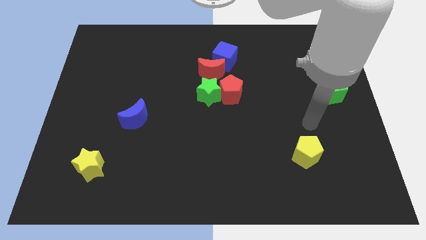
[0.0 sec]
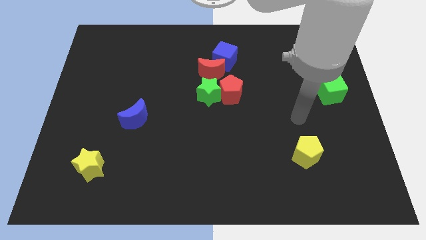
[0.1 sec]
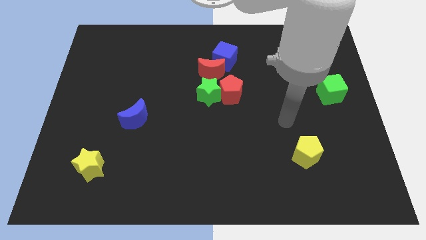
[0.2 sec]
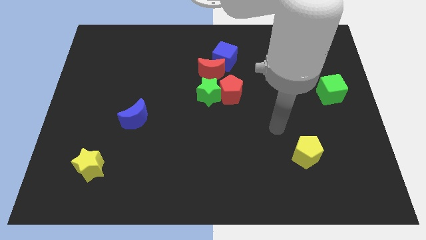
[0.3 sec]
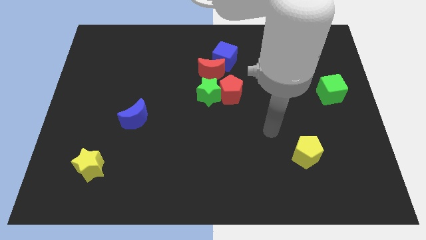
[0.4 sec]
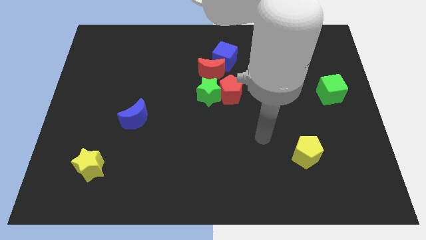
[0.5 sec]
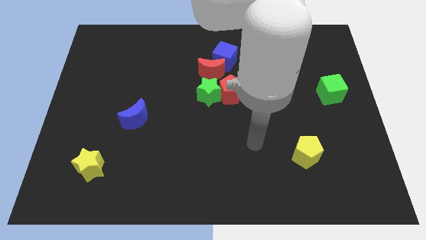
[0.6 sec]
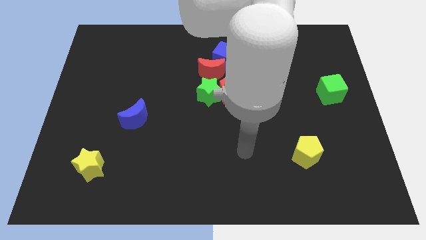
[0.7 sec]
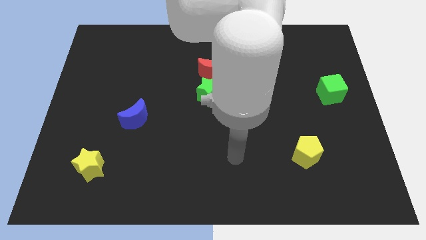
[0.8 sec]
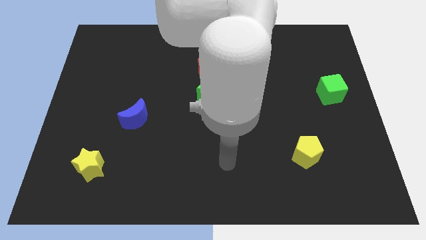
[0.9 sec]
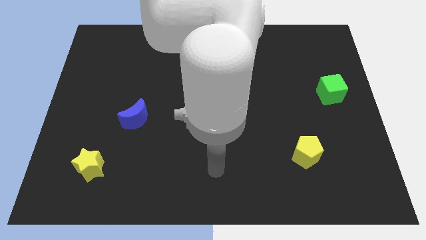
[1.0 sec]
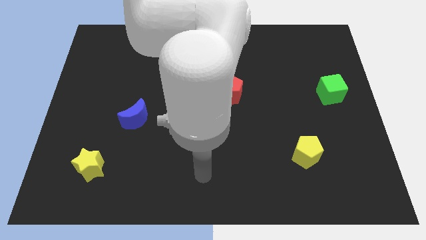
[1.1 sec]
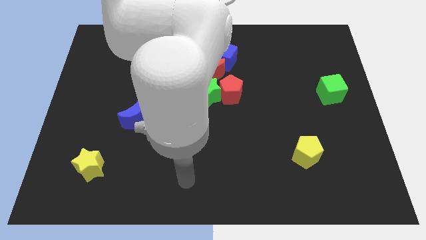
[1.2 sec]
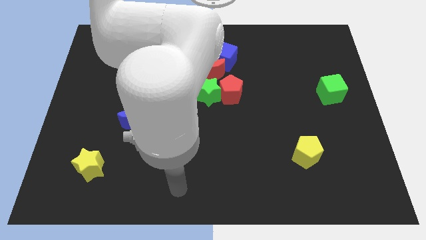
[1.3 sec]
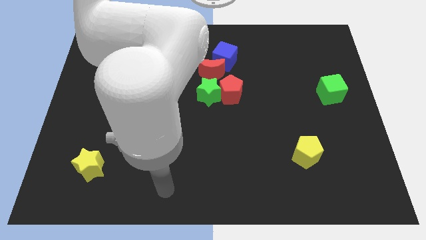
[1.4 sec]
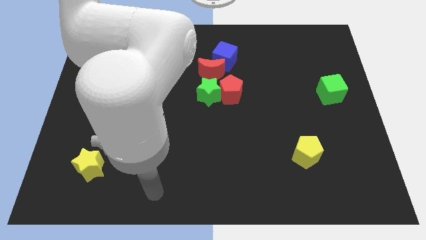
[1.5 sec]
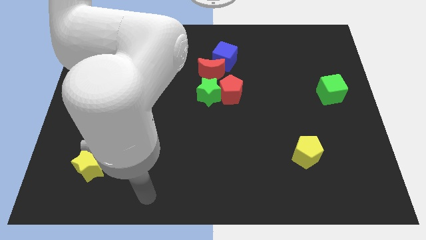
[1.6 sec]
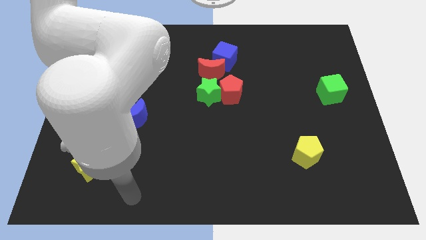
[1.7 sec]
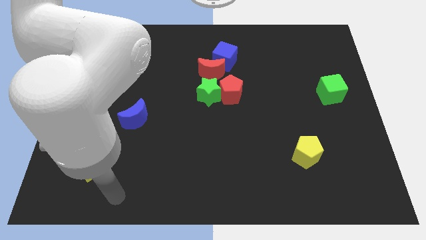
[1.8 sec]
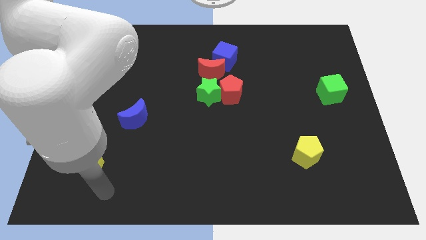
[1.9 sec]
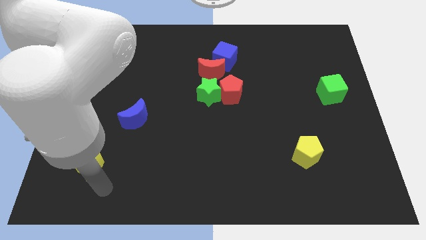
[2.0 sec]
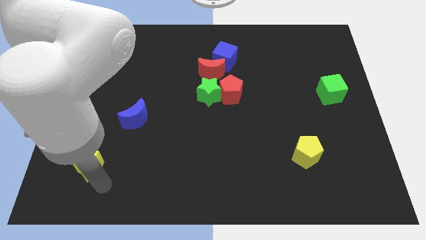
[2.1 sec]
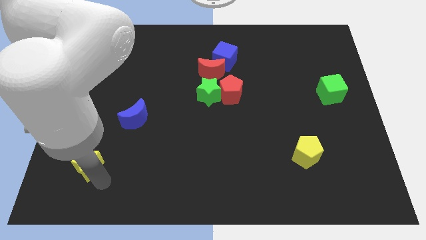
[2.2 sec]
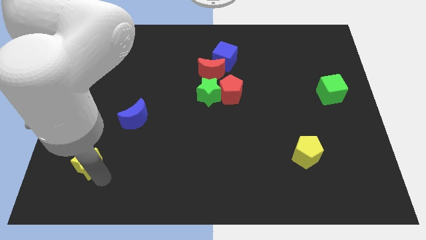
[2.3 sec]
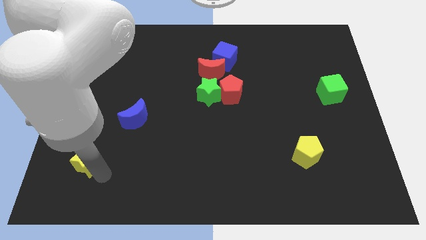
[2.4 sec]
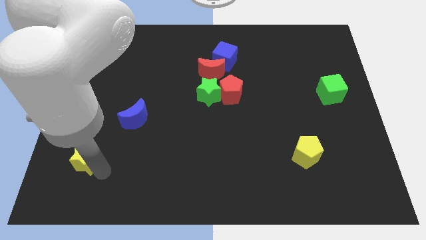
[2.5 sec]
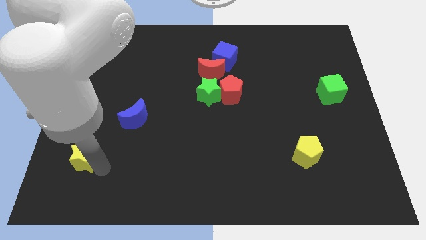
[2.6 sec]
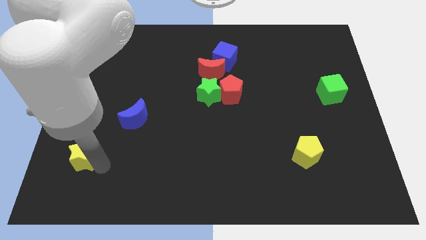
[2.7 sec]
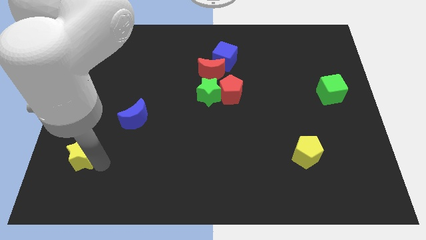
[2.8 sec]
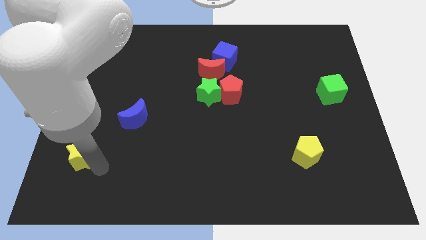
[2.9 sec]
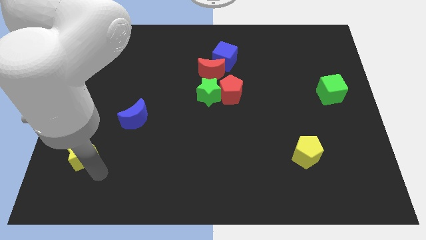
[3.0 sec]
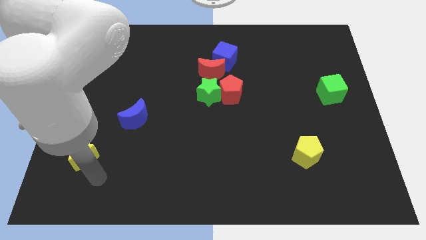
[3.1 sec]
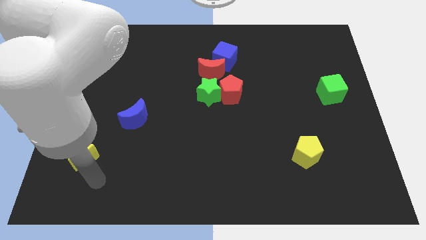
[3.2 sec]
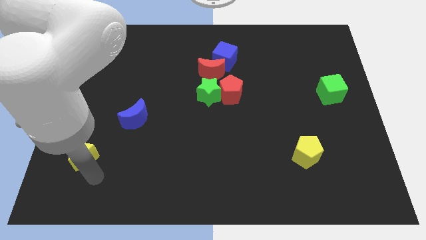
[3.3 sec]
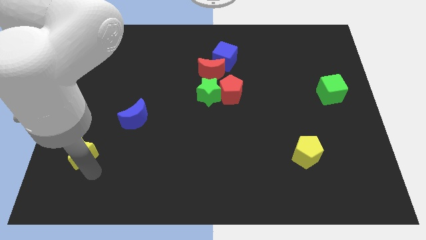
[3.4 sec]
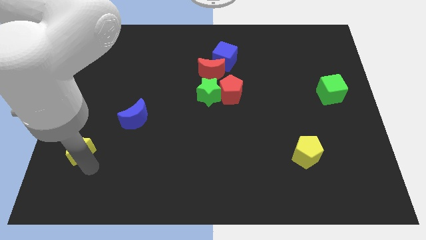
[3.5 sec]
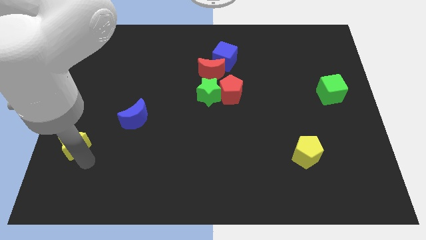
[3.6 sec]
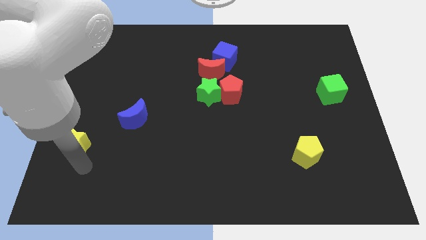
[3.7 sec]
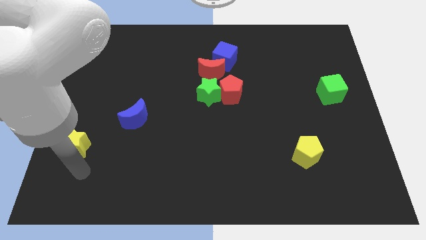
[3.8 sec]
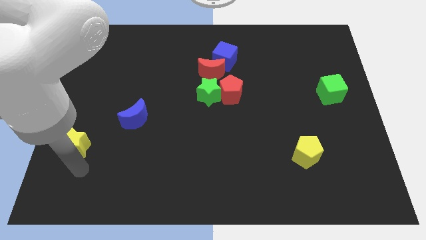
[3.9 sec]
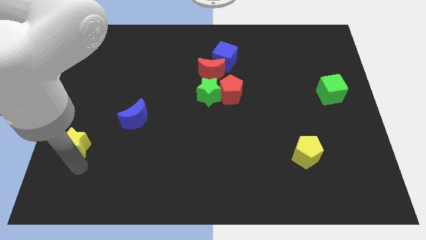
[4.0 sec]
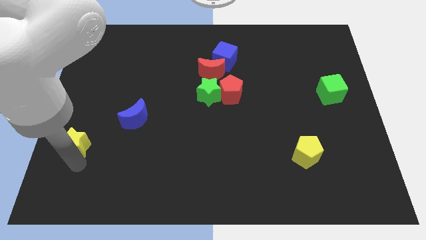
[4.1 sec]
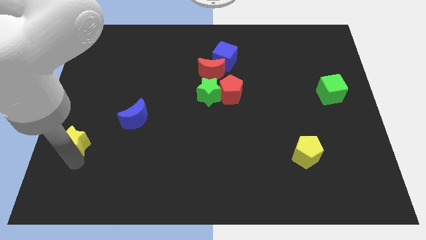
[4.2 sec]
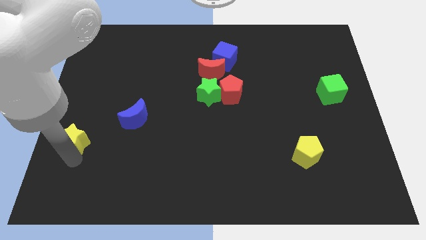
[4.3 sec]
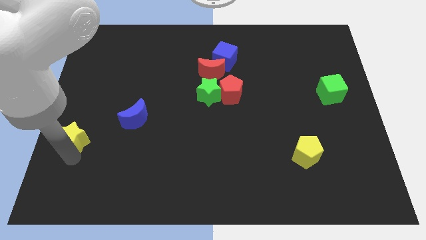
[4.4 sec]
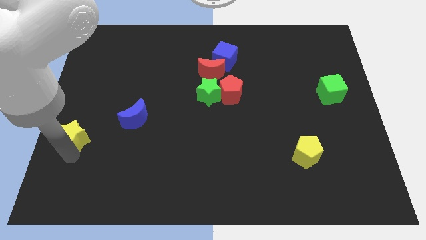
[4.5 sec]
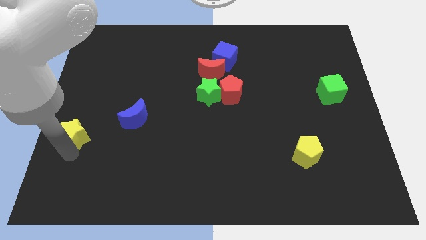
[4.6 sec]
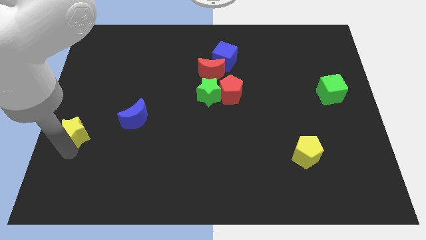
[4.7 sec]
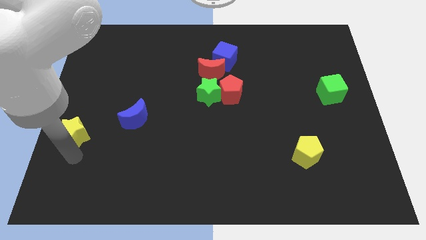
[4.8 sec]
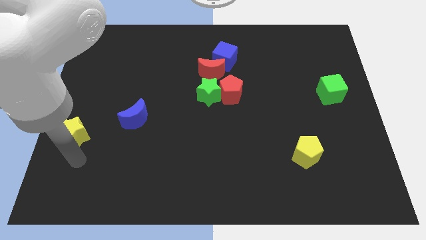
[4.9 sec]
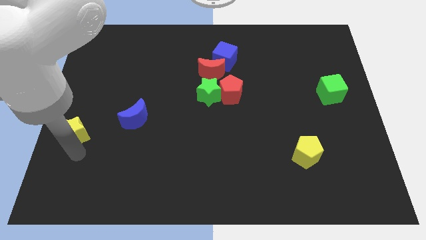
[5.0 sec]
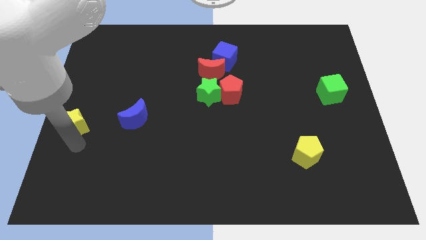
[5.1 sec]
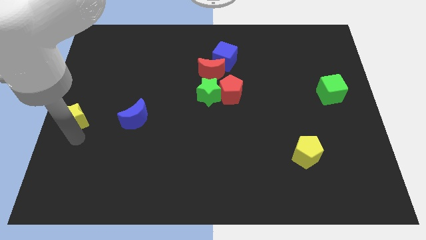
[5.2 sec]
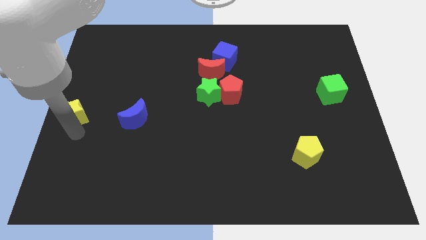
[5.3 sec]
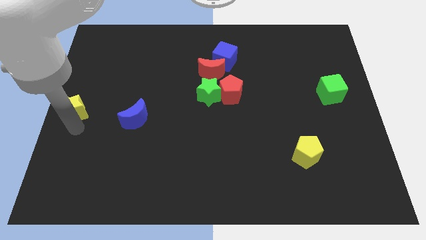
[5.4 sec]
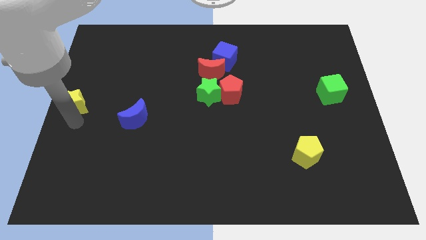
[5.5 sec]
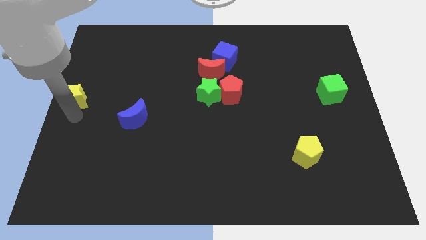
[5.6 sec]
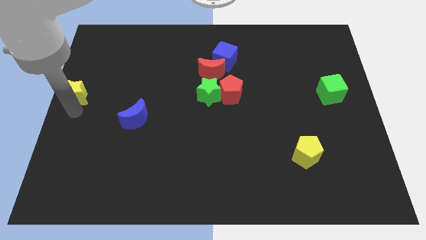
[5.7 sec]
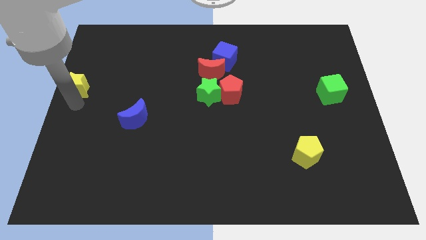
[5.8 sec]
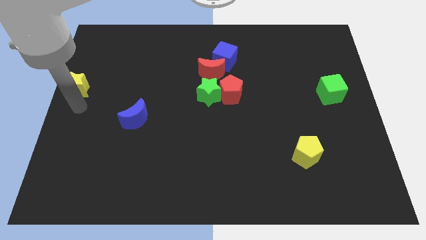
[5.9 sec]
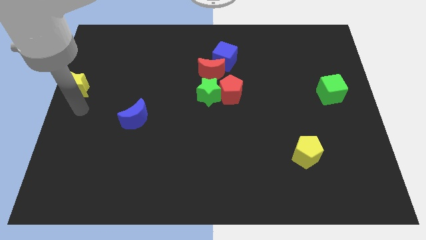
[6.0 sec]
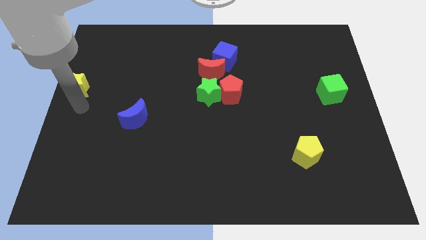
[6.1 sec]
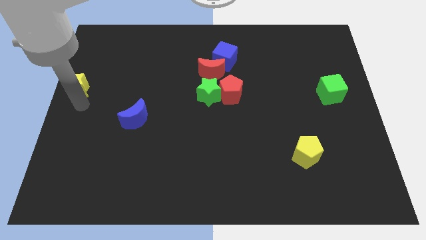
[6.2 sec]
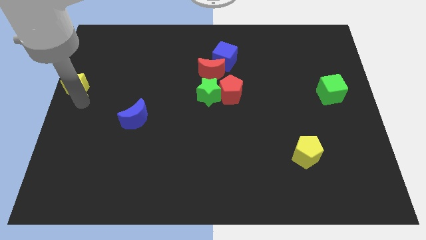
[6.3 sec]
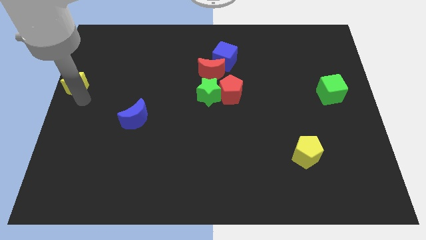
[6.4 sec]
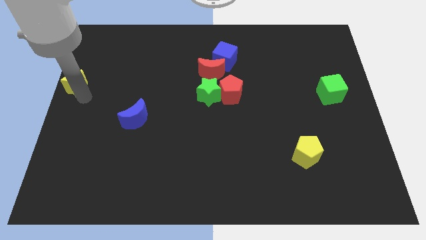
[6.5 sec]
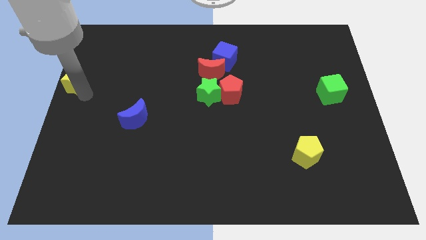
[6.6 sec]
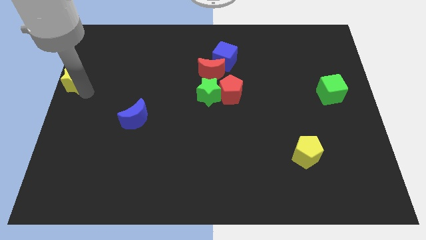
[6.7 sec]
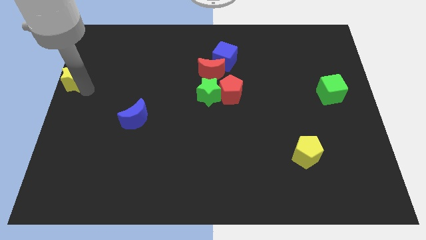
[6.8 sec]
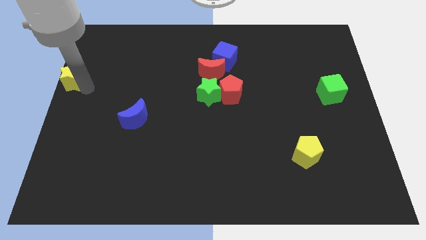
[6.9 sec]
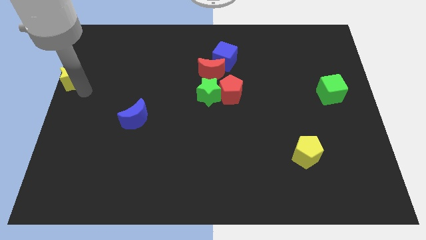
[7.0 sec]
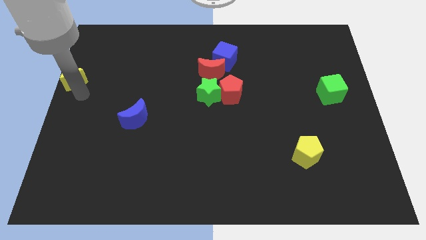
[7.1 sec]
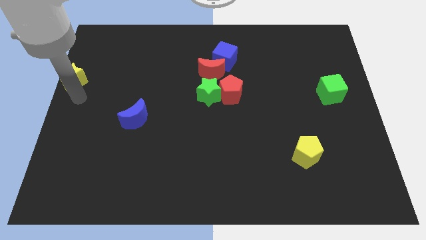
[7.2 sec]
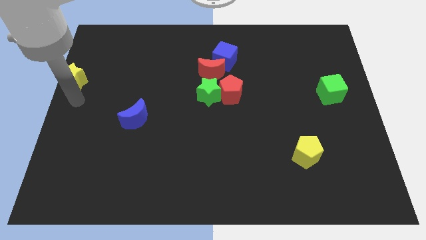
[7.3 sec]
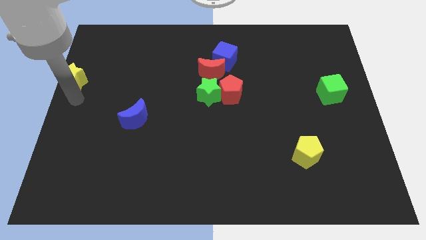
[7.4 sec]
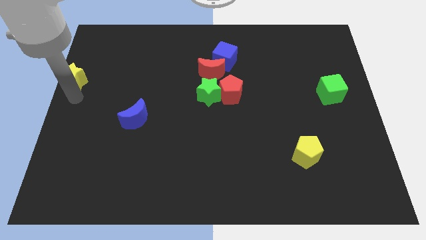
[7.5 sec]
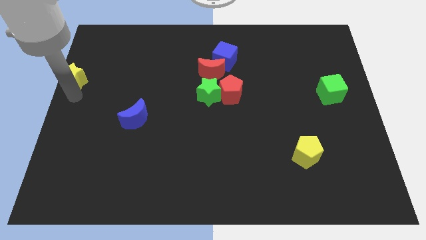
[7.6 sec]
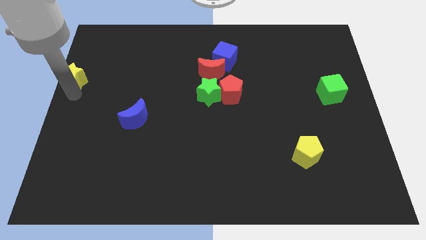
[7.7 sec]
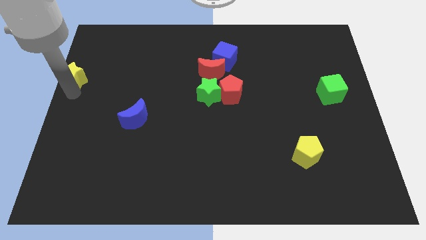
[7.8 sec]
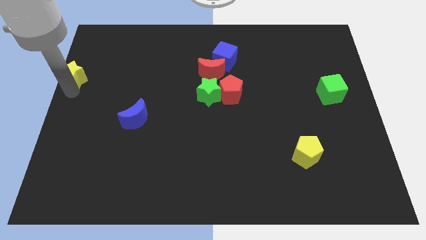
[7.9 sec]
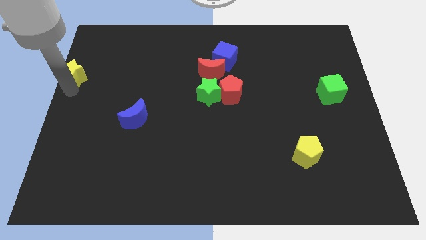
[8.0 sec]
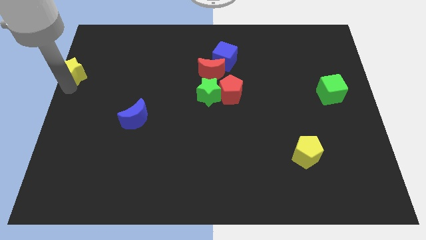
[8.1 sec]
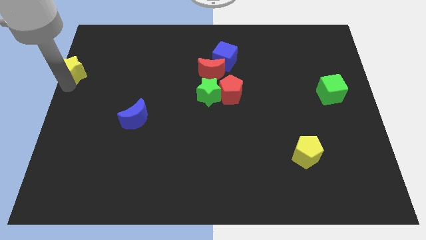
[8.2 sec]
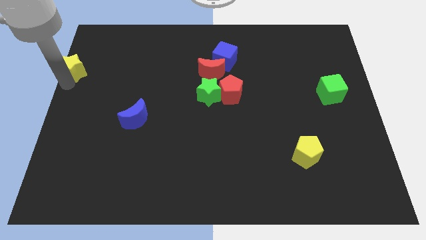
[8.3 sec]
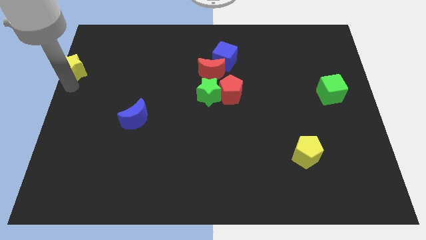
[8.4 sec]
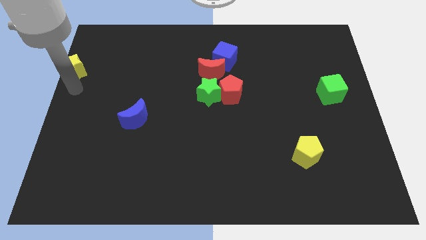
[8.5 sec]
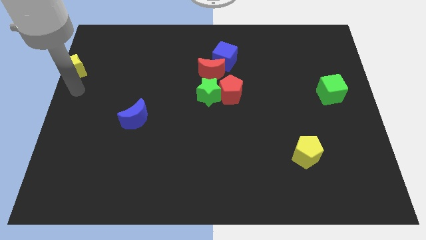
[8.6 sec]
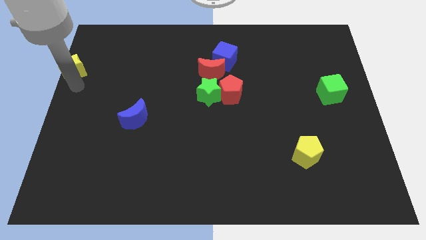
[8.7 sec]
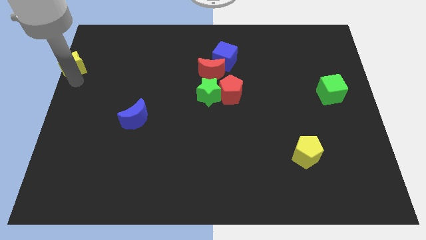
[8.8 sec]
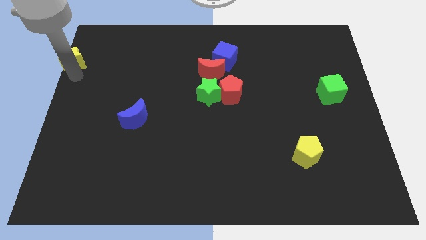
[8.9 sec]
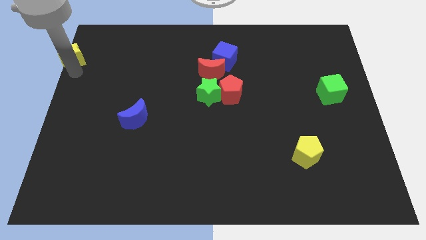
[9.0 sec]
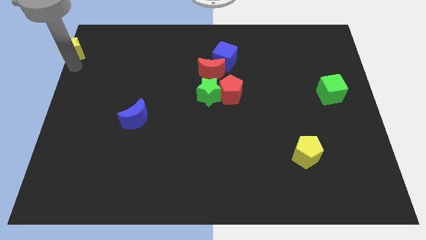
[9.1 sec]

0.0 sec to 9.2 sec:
push the yellow star to the top left corner
